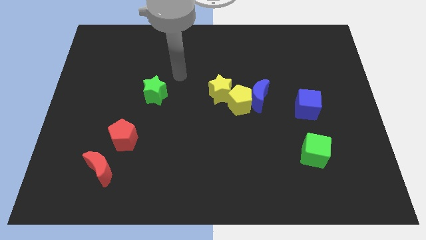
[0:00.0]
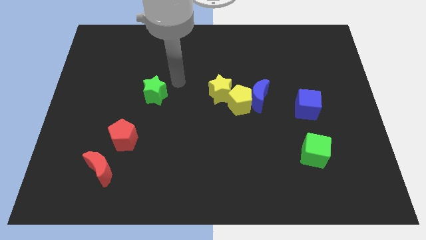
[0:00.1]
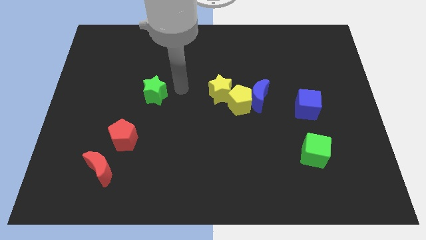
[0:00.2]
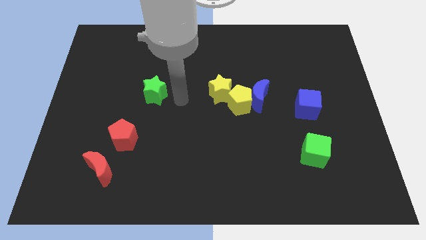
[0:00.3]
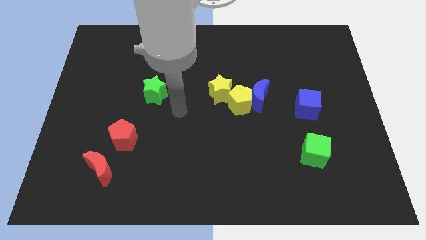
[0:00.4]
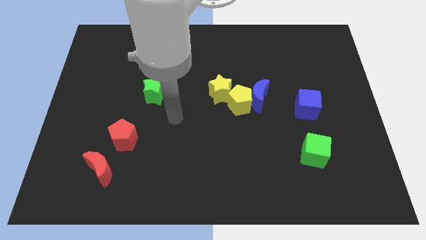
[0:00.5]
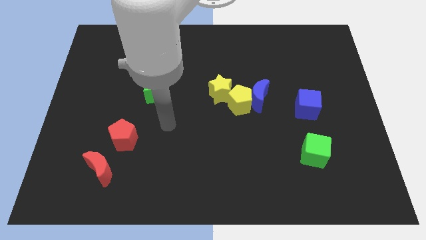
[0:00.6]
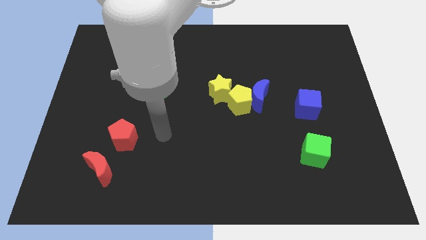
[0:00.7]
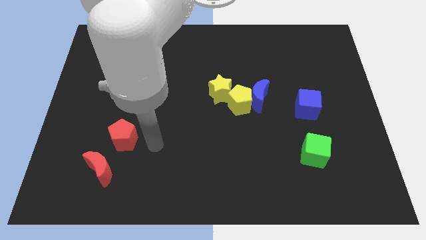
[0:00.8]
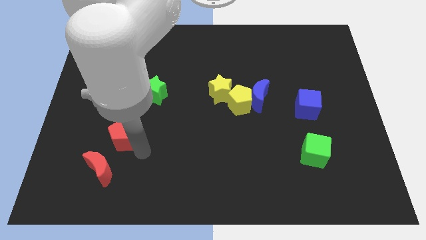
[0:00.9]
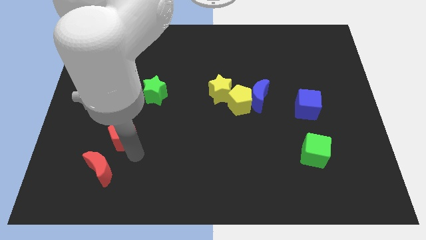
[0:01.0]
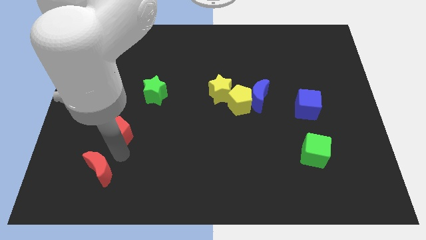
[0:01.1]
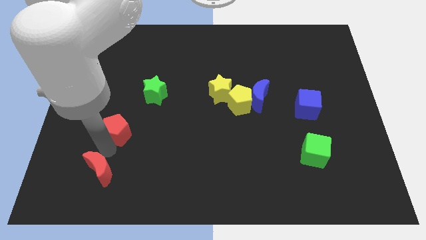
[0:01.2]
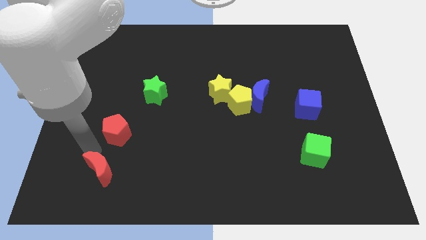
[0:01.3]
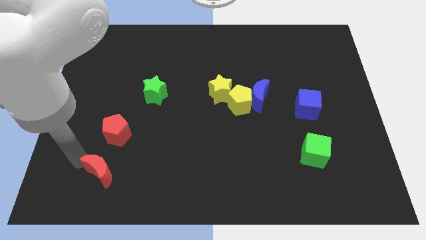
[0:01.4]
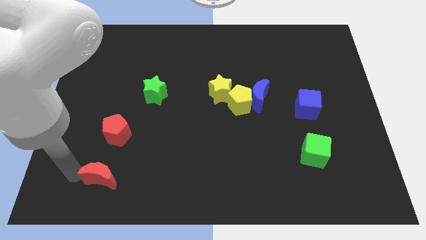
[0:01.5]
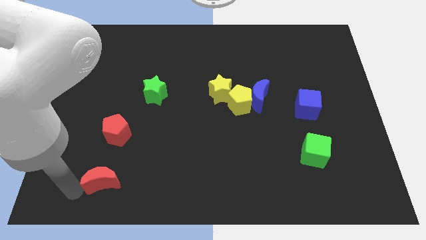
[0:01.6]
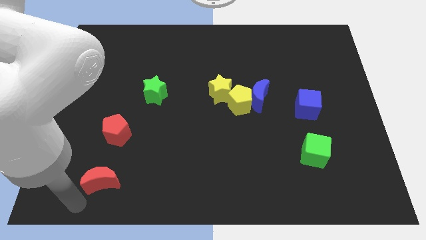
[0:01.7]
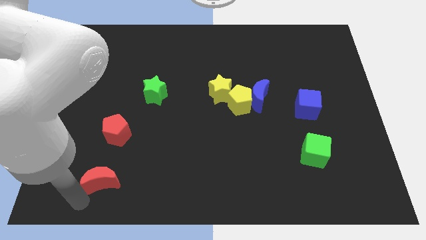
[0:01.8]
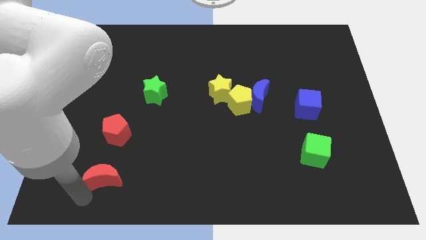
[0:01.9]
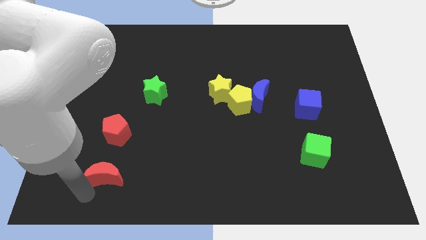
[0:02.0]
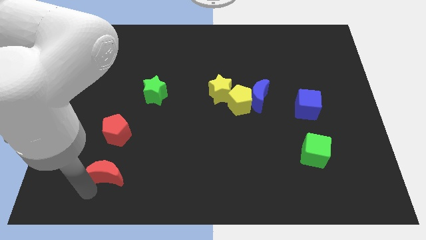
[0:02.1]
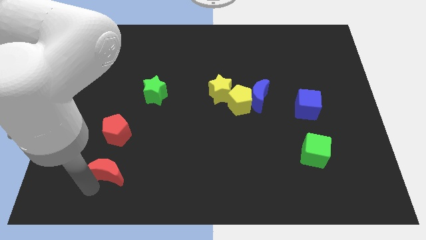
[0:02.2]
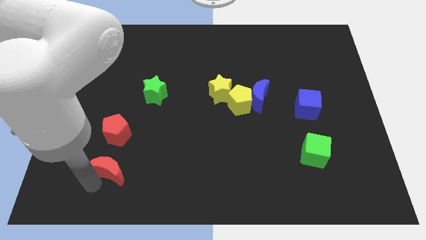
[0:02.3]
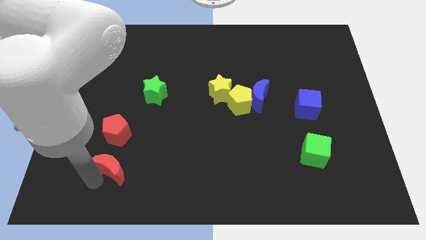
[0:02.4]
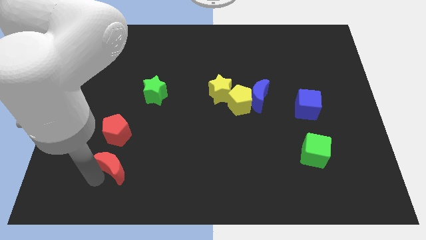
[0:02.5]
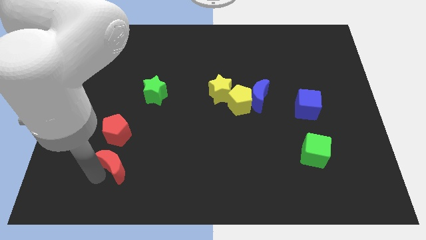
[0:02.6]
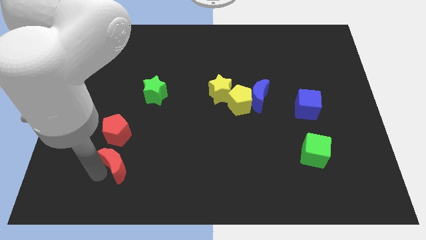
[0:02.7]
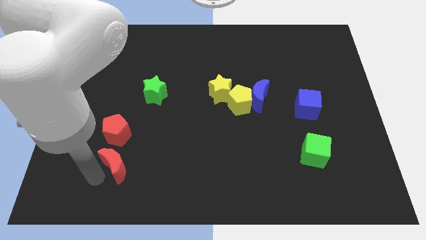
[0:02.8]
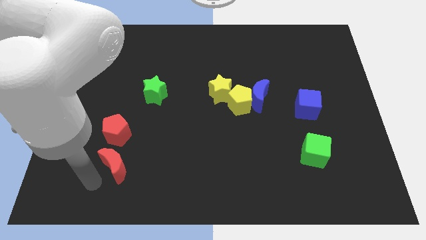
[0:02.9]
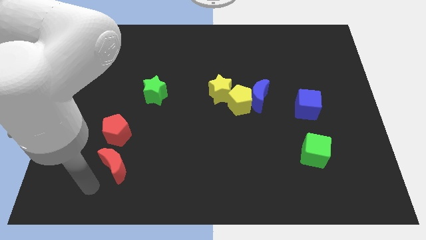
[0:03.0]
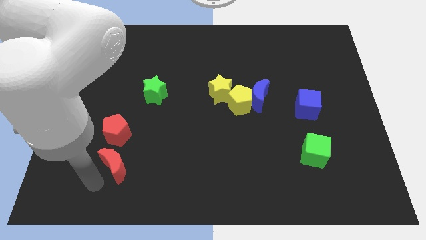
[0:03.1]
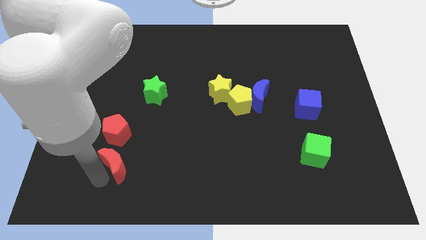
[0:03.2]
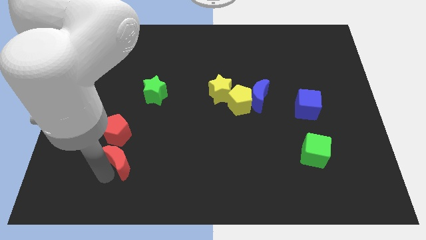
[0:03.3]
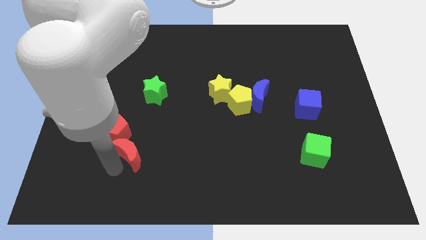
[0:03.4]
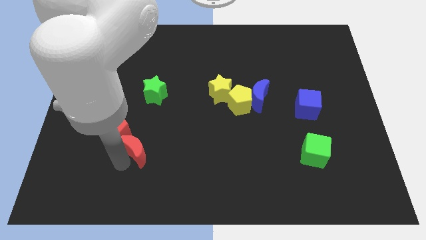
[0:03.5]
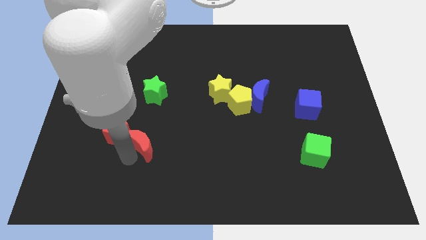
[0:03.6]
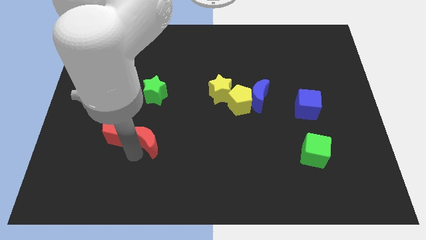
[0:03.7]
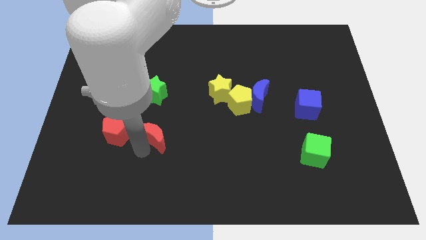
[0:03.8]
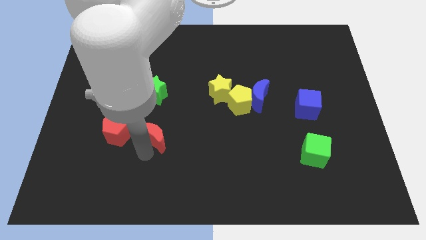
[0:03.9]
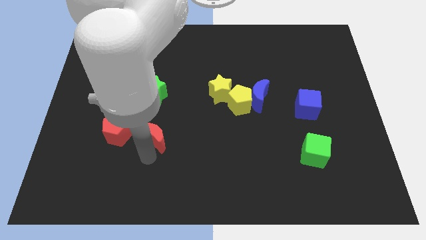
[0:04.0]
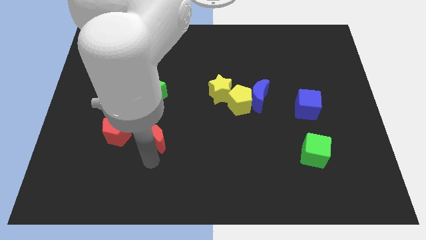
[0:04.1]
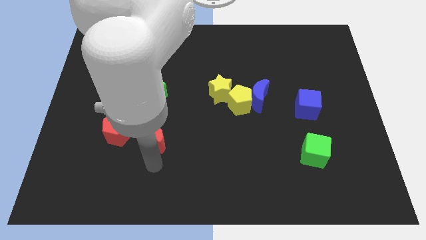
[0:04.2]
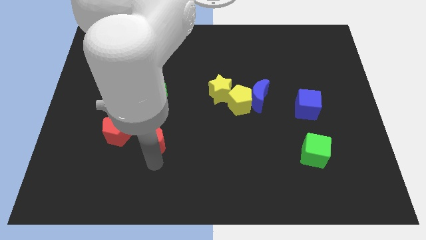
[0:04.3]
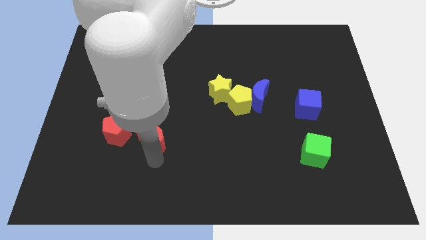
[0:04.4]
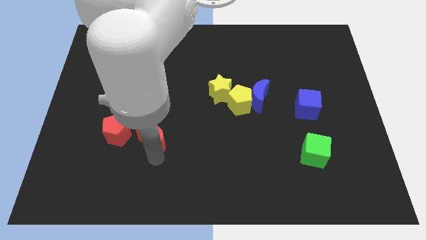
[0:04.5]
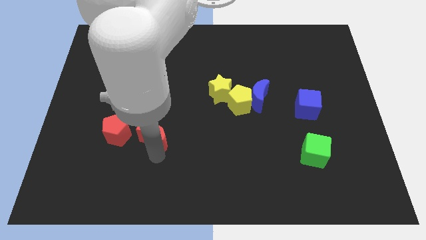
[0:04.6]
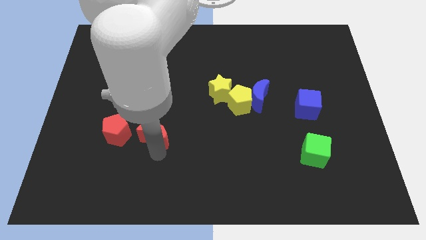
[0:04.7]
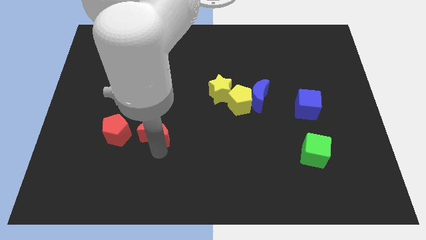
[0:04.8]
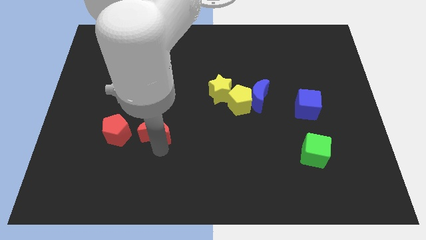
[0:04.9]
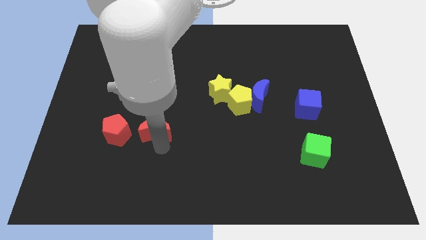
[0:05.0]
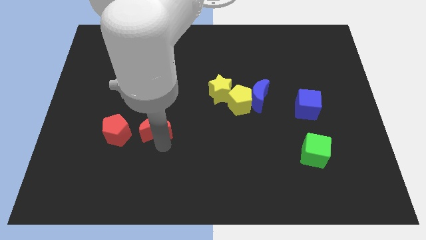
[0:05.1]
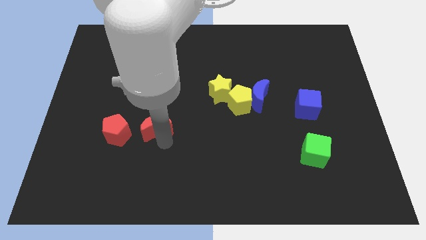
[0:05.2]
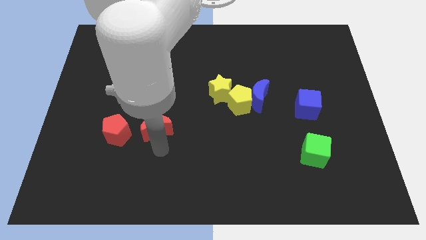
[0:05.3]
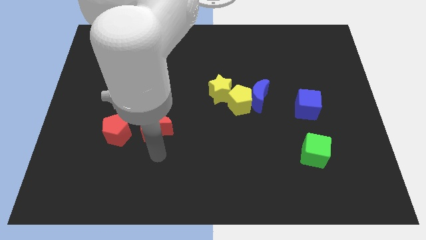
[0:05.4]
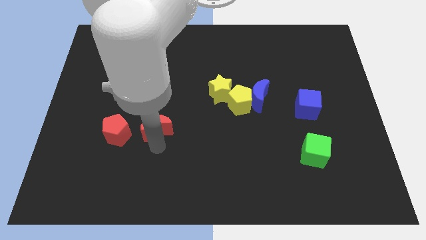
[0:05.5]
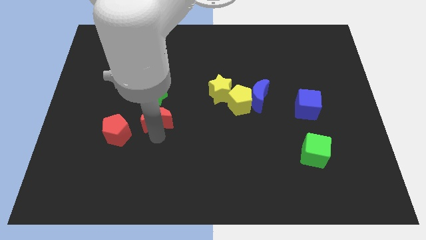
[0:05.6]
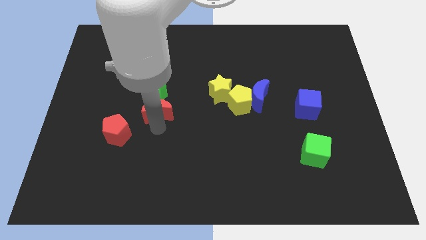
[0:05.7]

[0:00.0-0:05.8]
move the red moon close to the green star

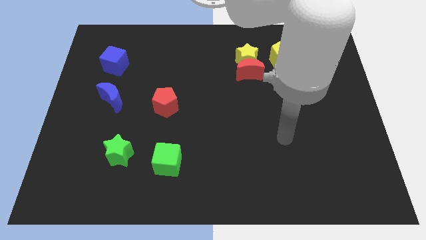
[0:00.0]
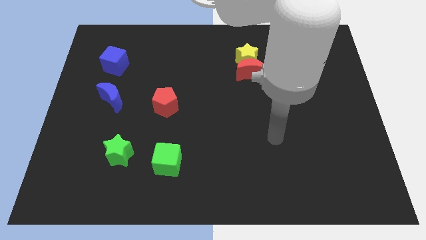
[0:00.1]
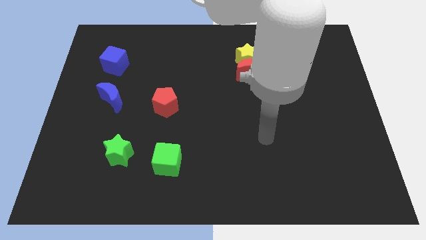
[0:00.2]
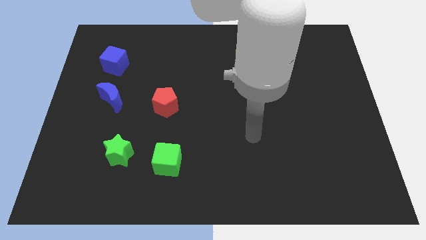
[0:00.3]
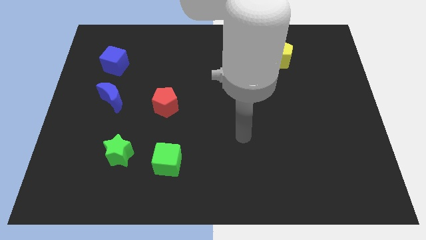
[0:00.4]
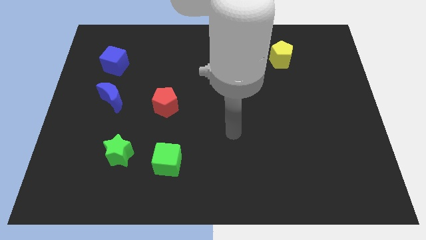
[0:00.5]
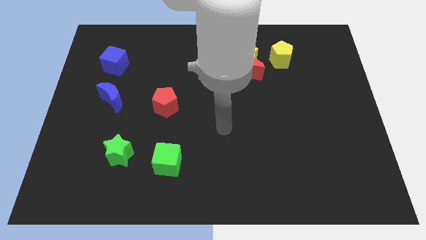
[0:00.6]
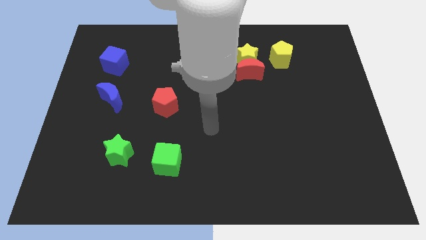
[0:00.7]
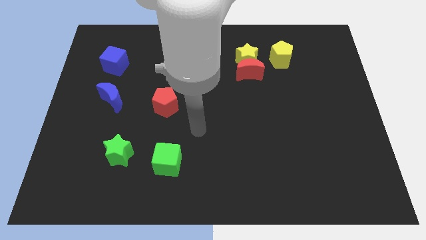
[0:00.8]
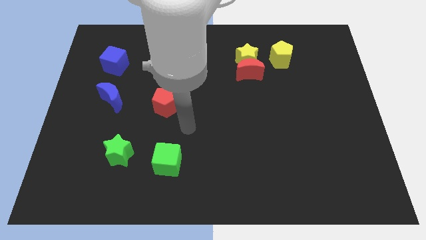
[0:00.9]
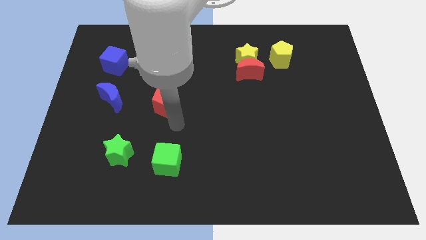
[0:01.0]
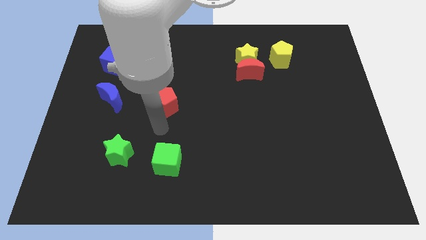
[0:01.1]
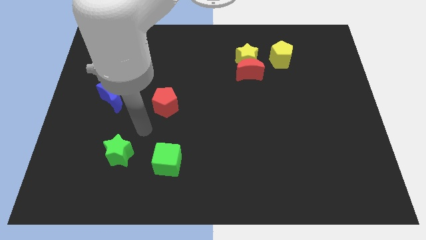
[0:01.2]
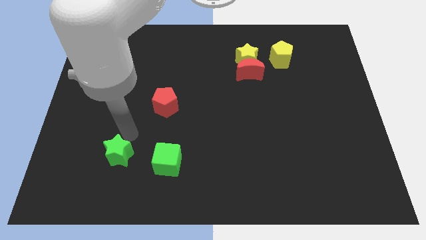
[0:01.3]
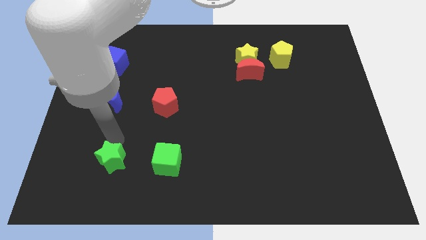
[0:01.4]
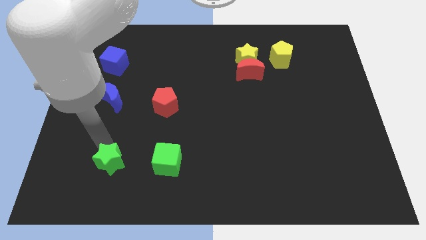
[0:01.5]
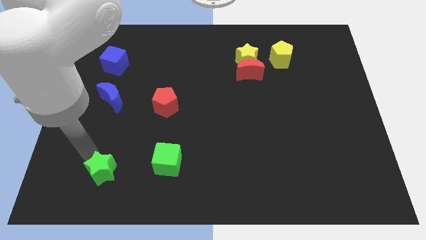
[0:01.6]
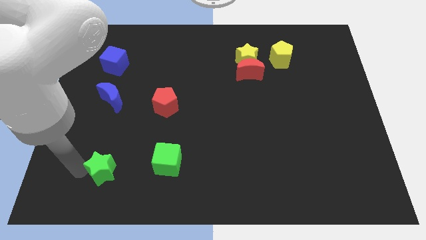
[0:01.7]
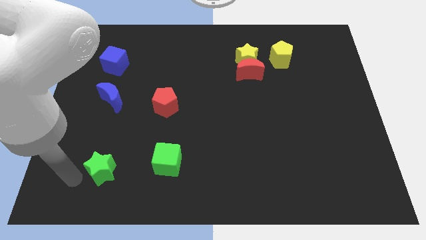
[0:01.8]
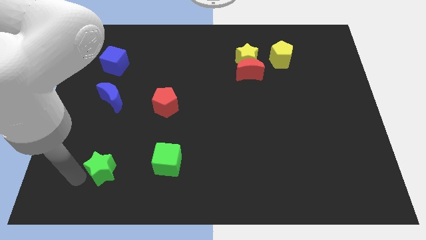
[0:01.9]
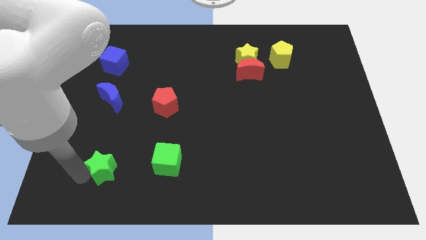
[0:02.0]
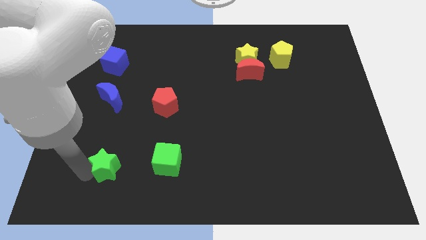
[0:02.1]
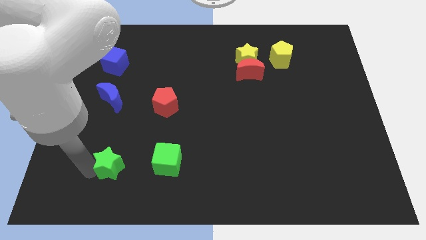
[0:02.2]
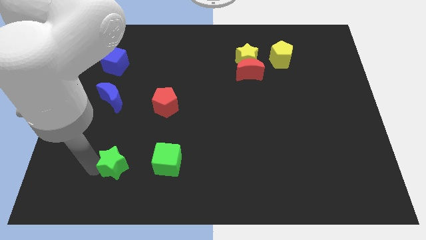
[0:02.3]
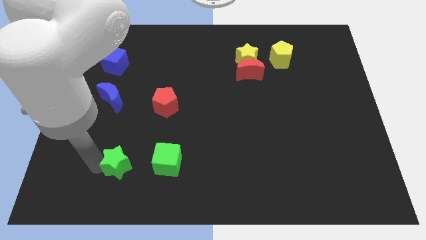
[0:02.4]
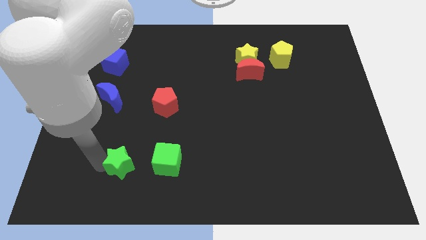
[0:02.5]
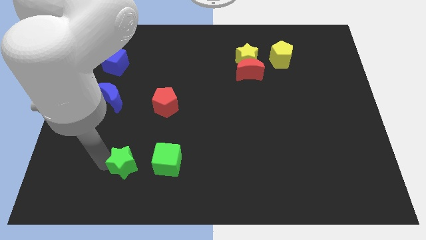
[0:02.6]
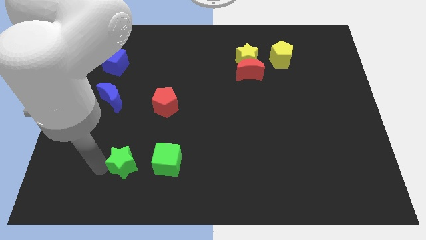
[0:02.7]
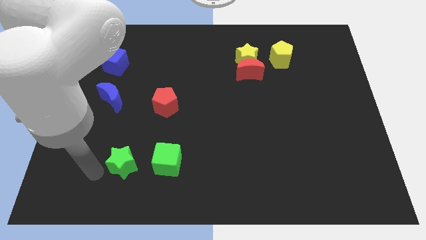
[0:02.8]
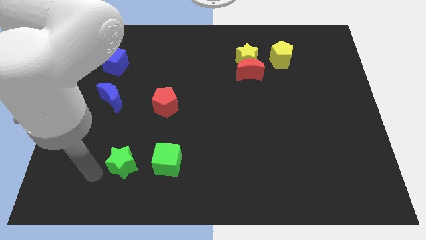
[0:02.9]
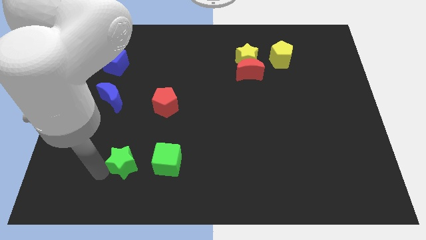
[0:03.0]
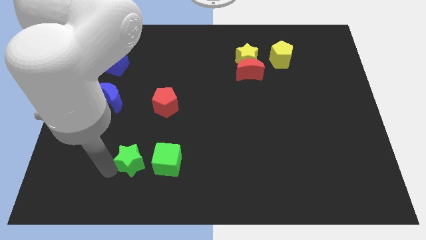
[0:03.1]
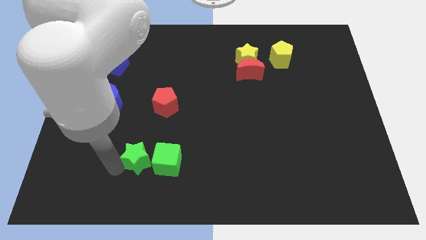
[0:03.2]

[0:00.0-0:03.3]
push the green star to the green cube
